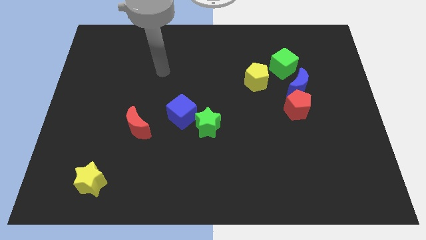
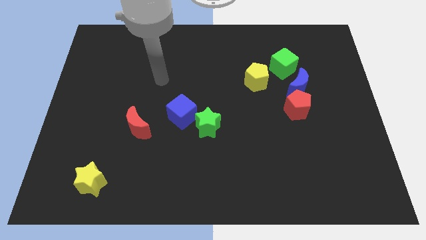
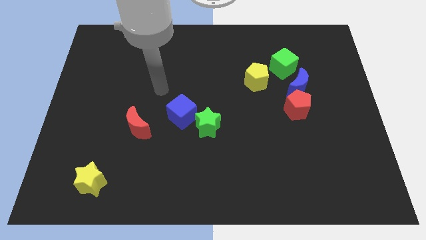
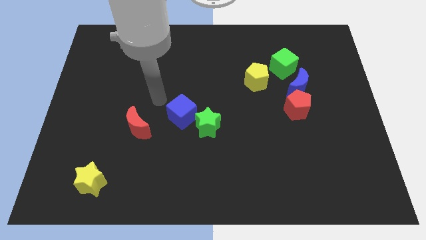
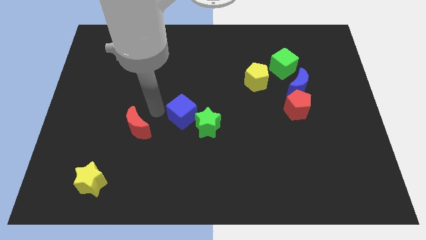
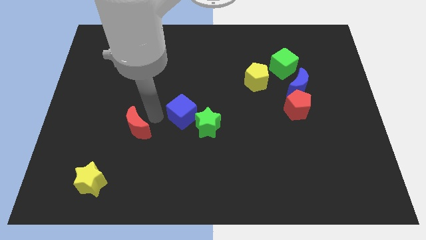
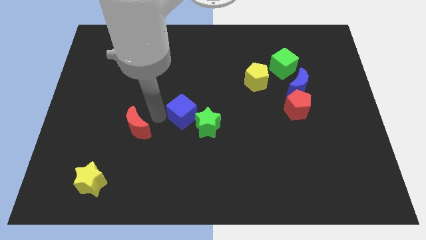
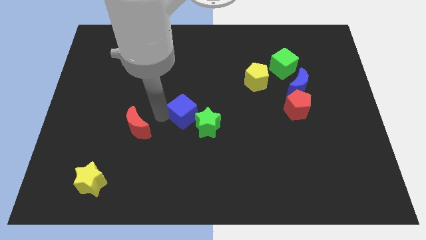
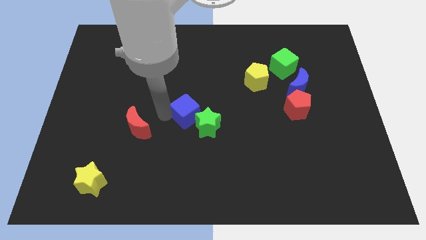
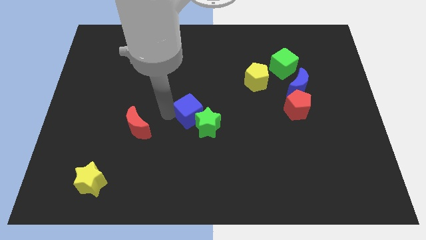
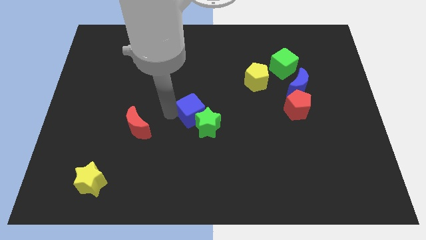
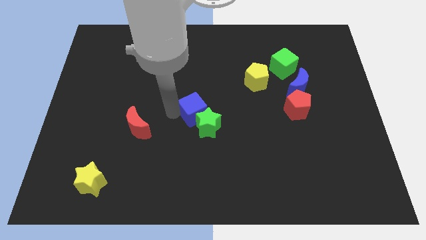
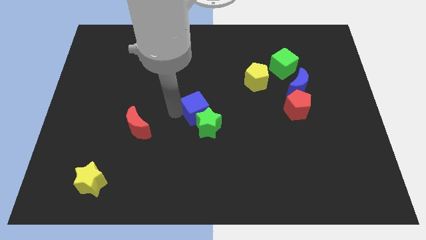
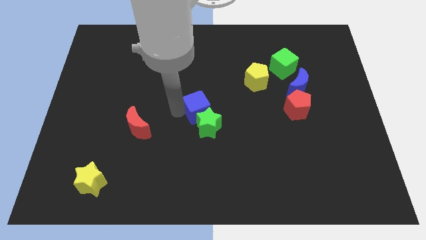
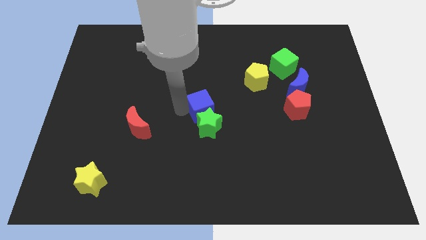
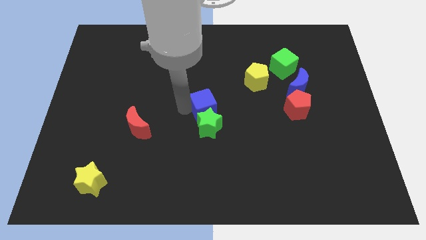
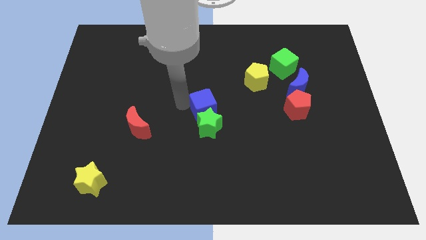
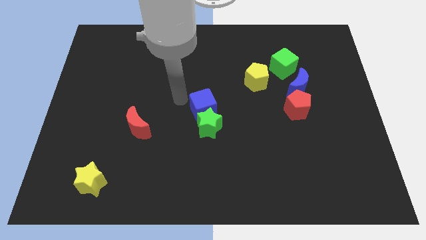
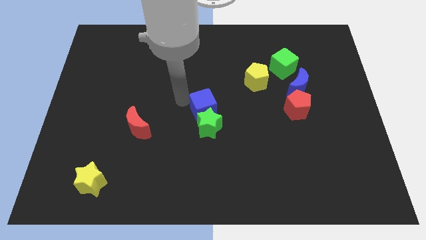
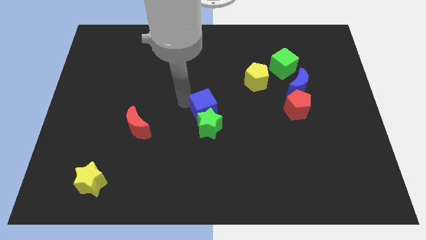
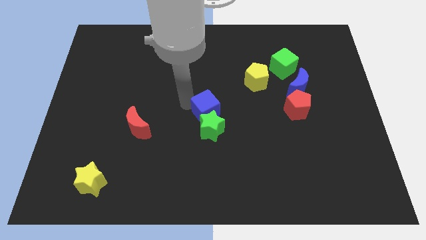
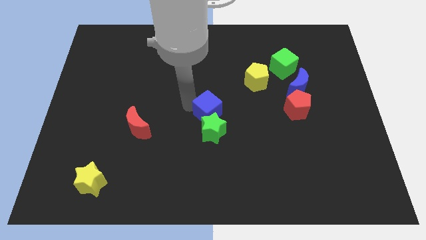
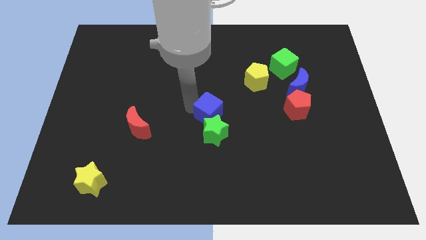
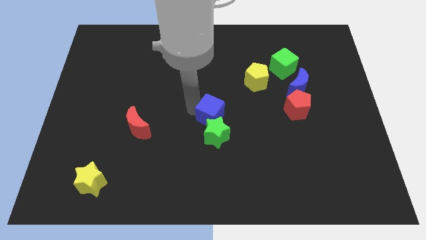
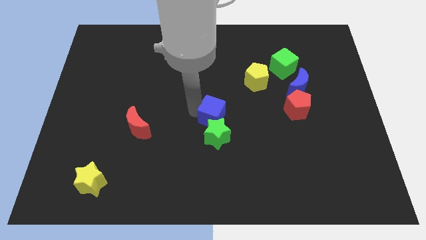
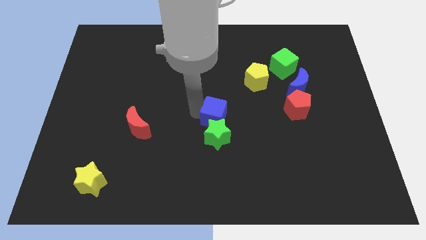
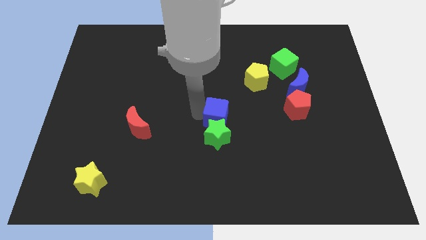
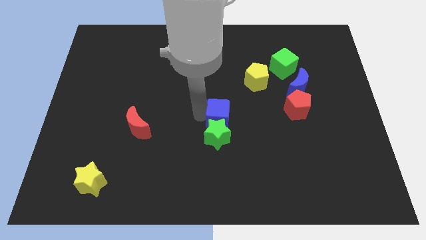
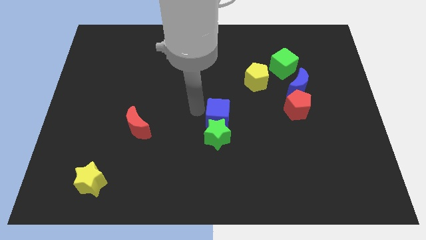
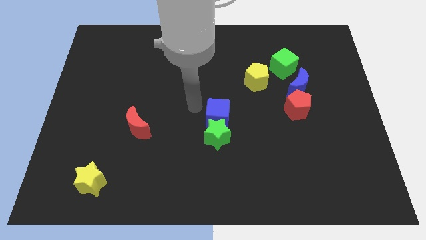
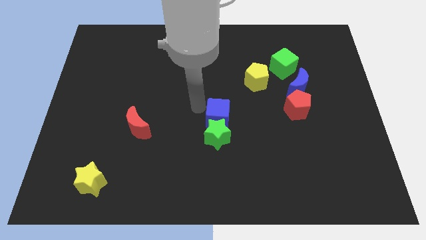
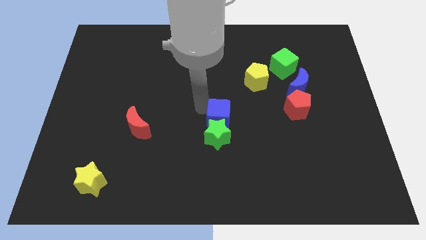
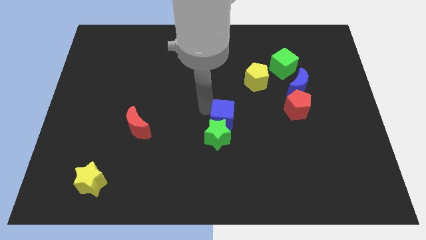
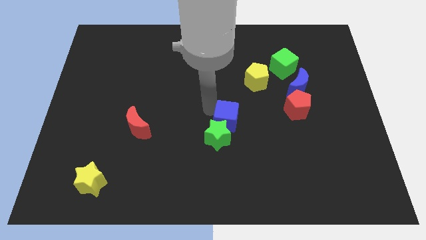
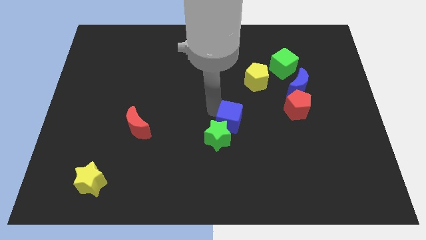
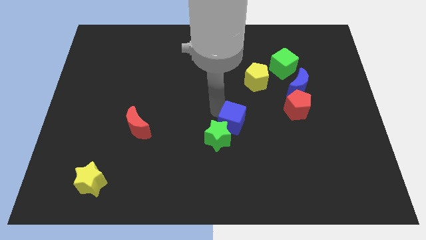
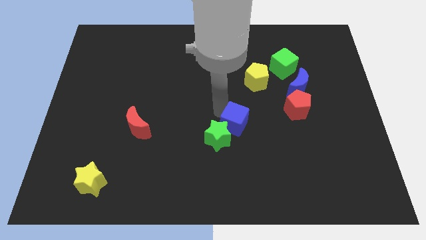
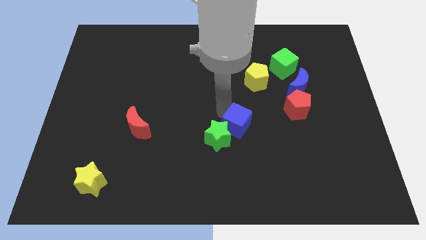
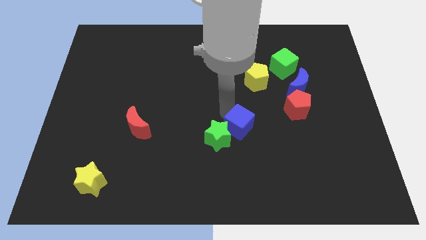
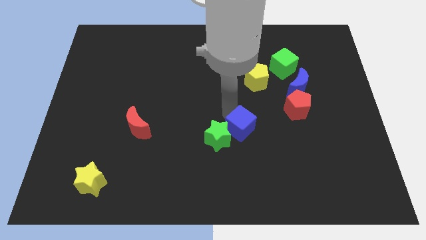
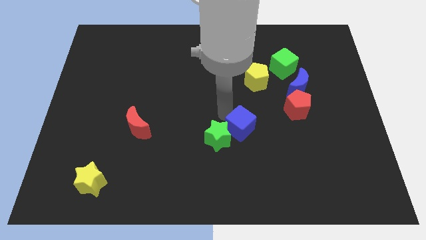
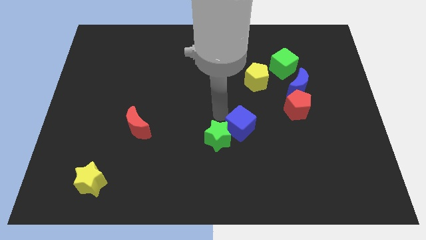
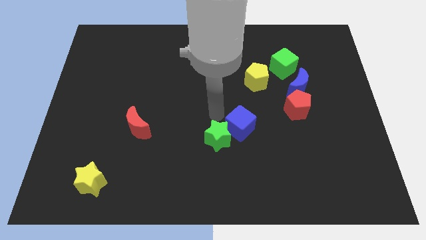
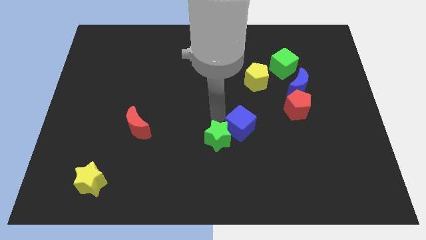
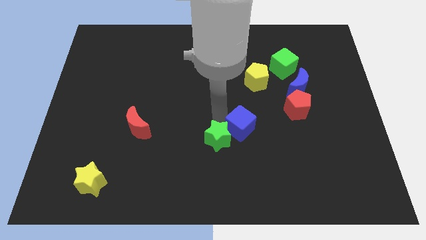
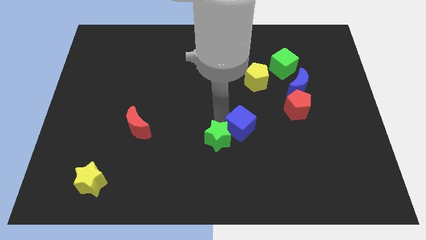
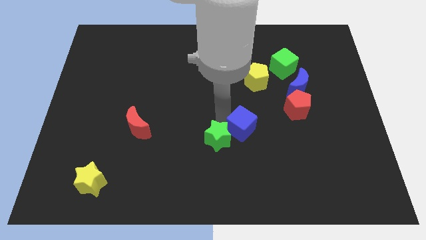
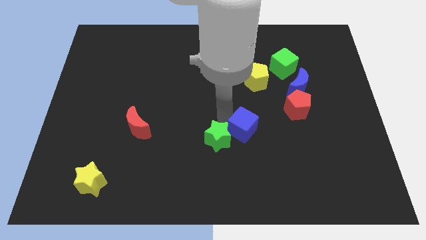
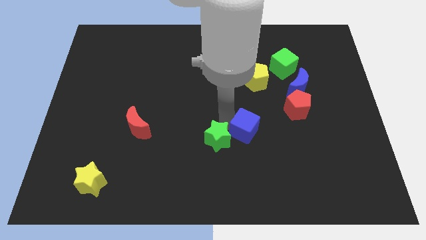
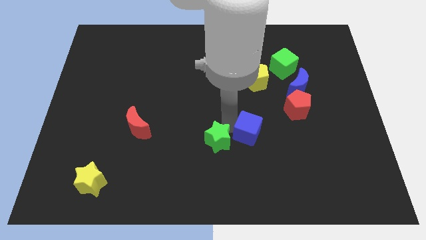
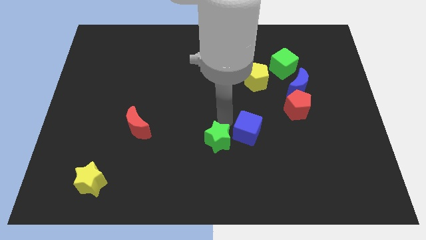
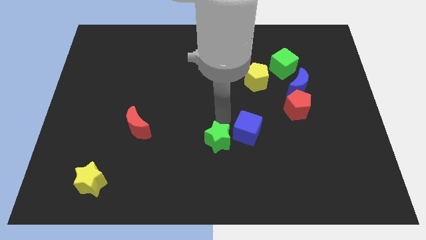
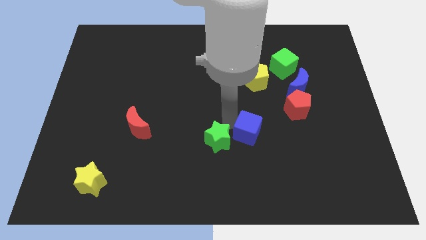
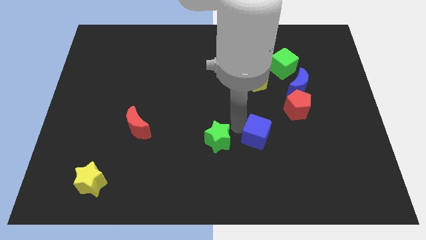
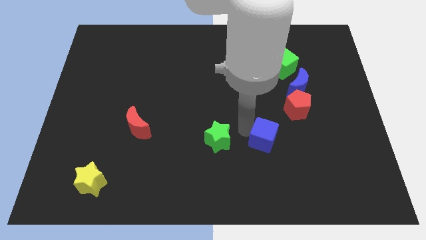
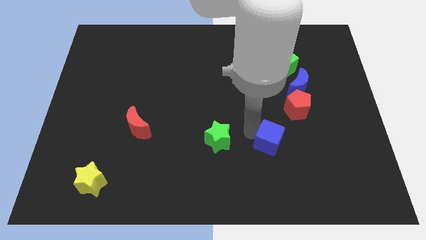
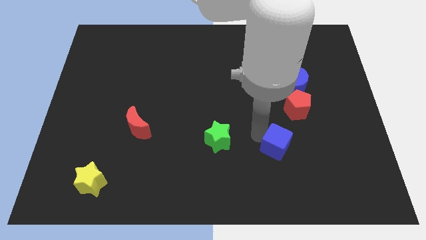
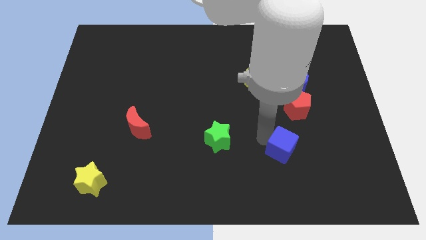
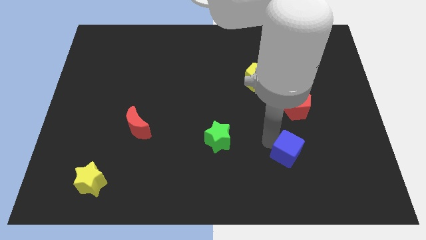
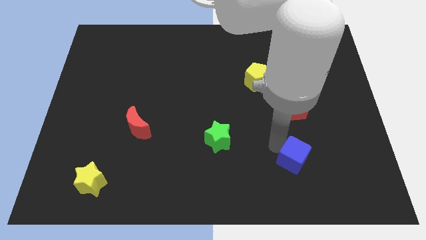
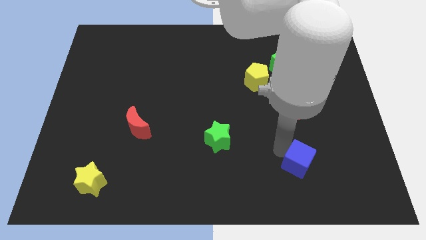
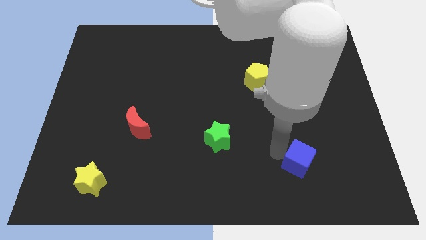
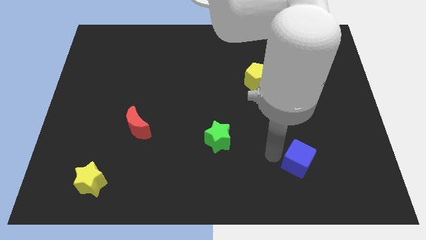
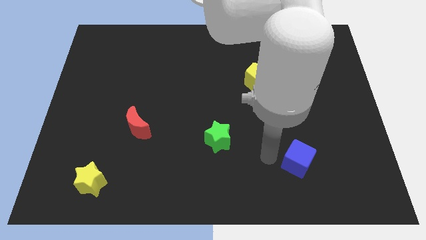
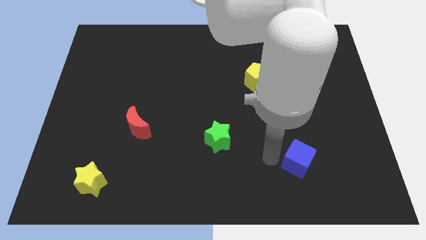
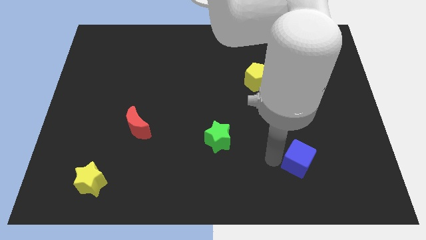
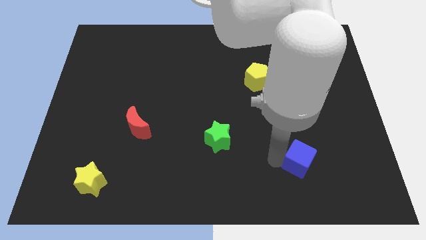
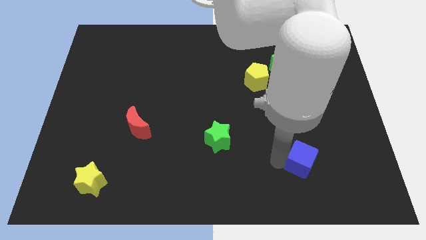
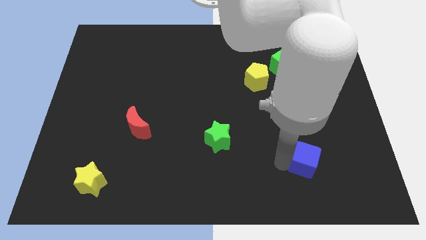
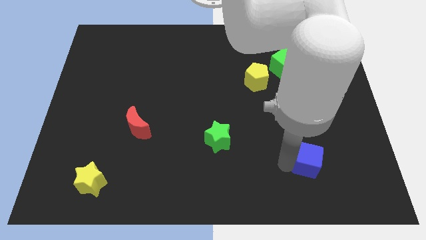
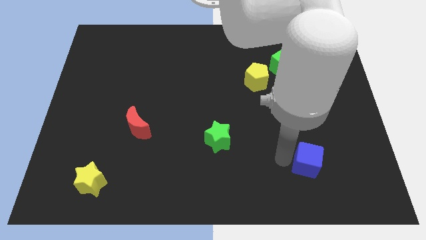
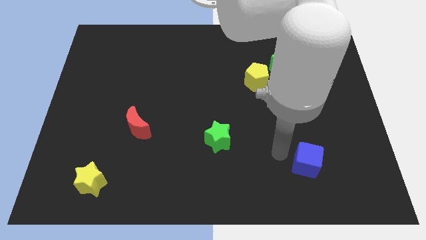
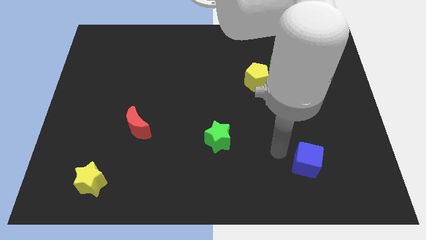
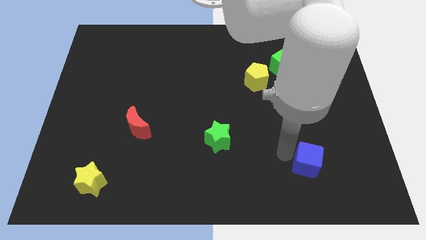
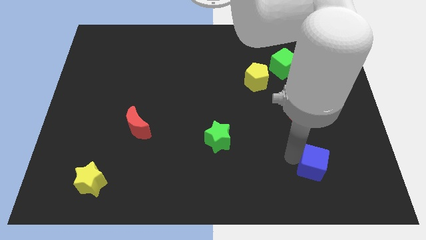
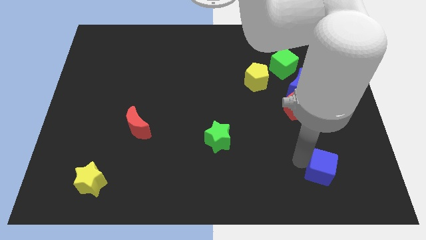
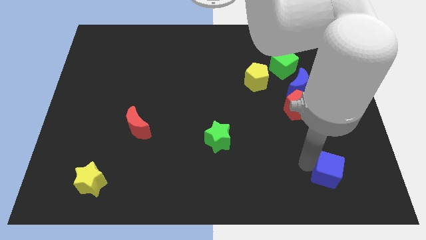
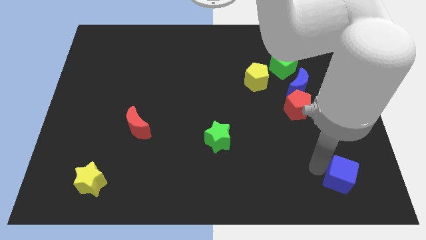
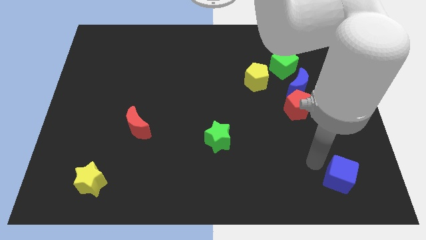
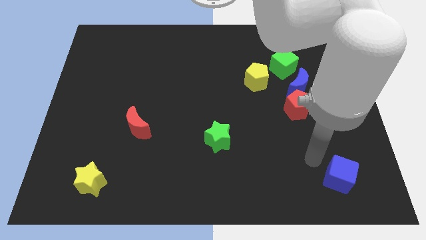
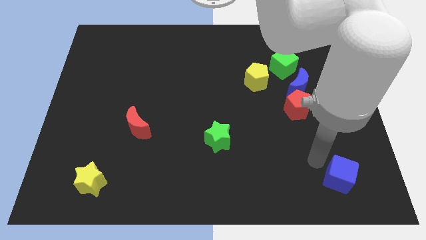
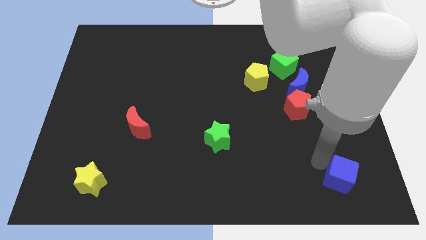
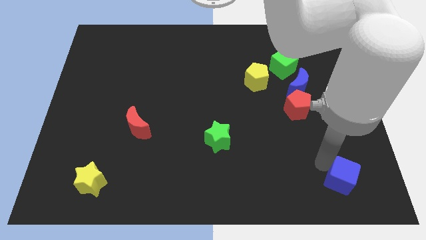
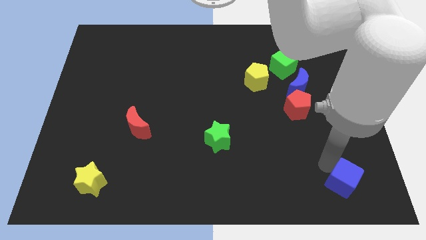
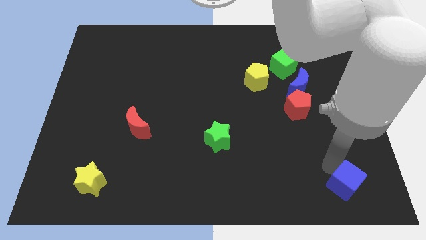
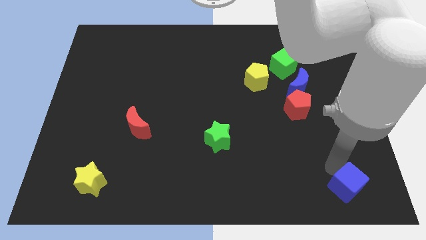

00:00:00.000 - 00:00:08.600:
slide the blue cube to the bottom right
